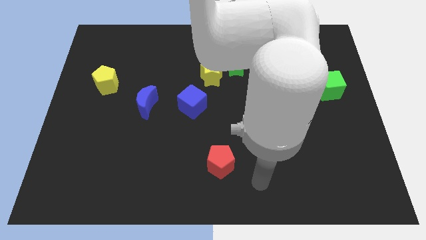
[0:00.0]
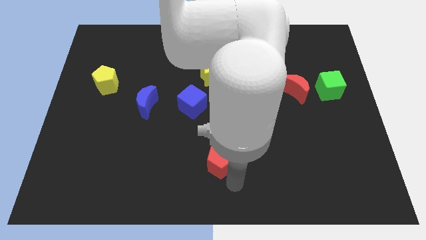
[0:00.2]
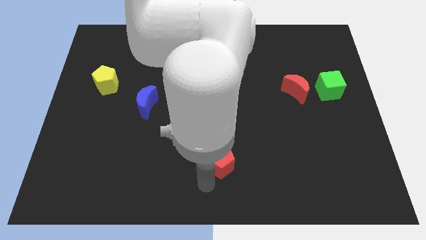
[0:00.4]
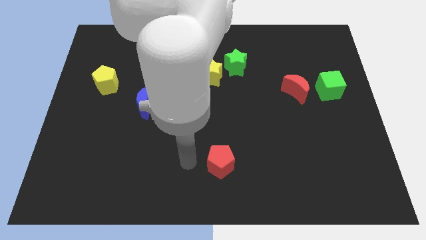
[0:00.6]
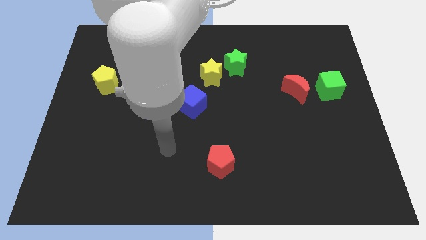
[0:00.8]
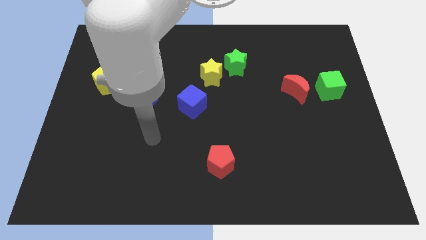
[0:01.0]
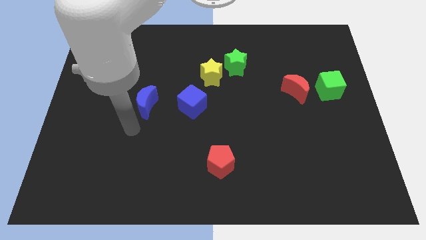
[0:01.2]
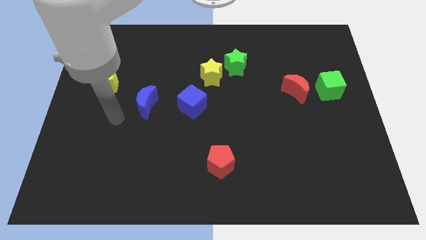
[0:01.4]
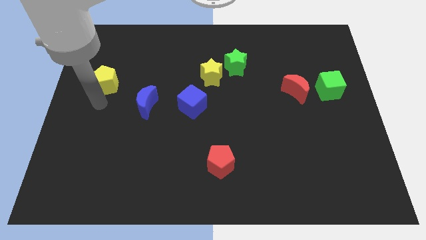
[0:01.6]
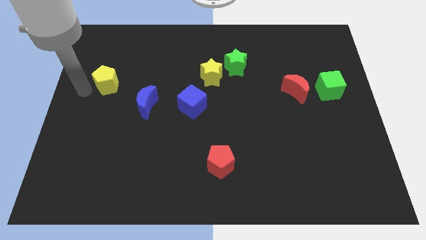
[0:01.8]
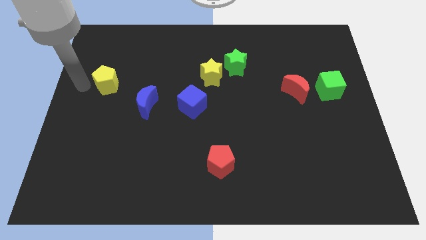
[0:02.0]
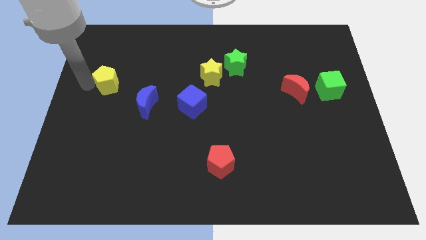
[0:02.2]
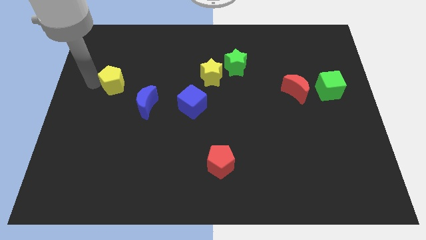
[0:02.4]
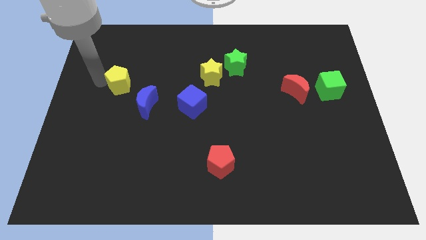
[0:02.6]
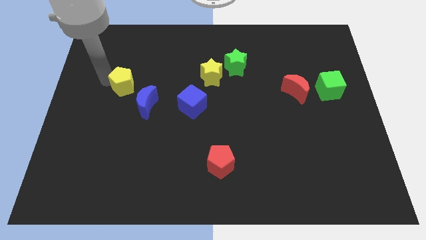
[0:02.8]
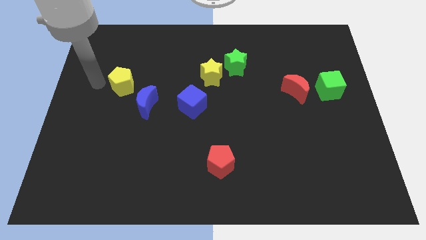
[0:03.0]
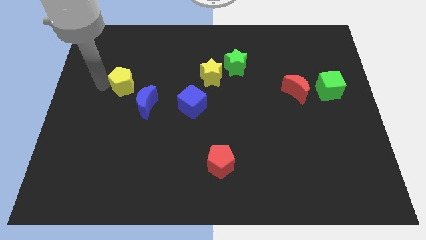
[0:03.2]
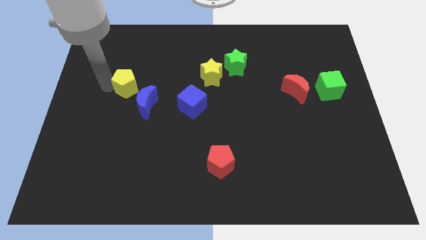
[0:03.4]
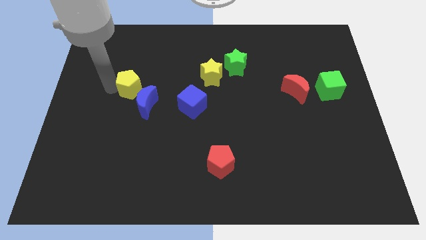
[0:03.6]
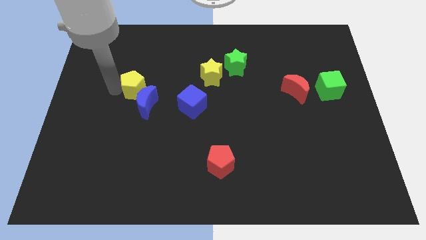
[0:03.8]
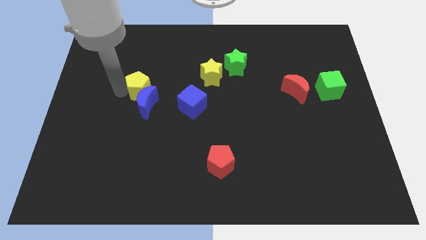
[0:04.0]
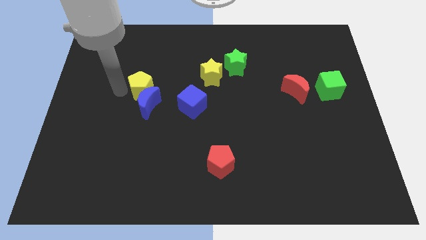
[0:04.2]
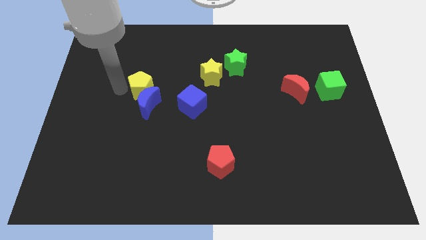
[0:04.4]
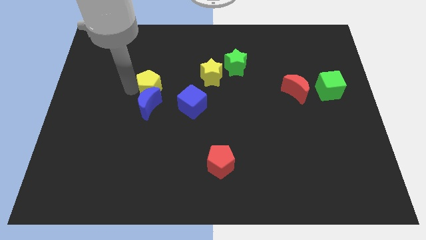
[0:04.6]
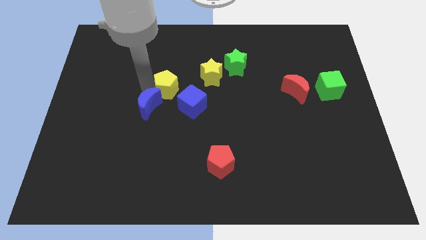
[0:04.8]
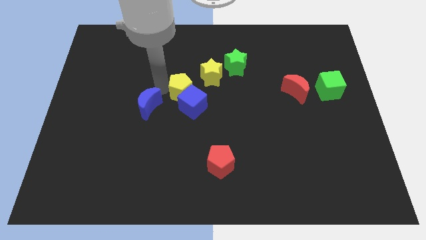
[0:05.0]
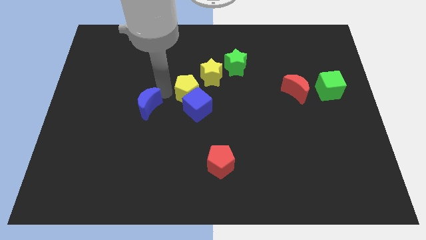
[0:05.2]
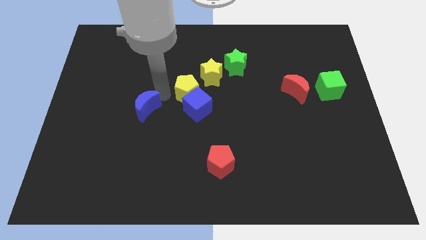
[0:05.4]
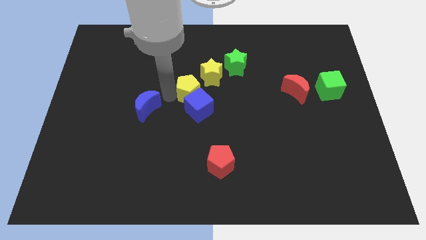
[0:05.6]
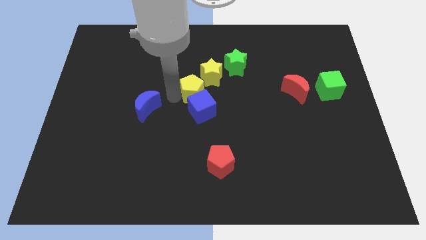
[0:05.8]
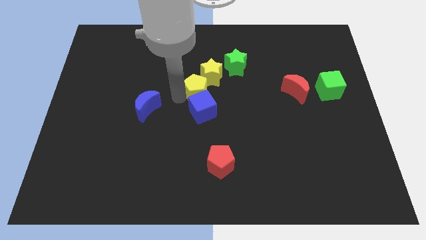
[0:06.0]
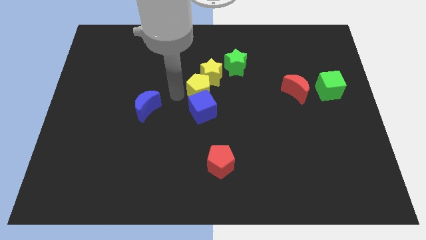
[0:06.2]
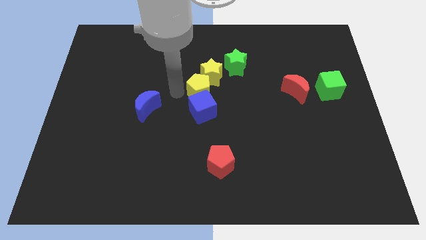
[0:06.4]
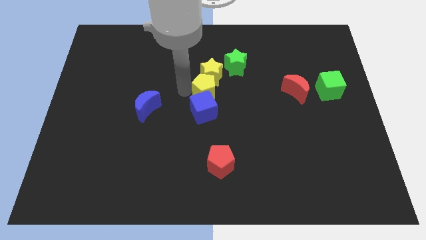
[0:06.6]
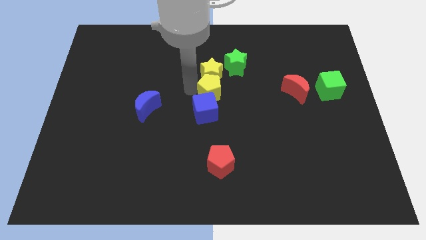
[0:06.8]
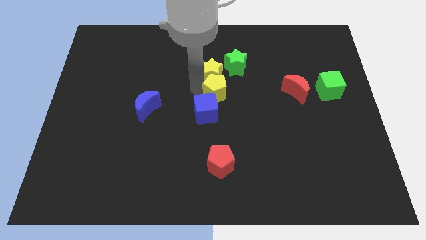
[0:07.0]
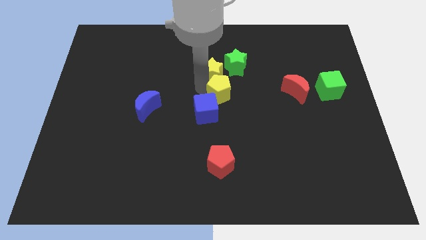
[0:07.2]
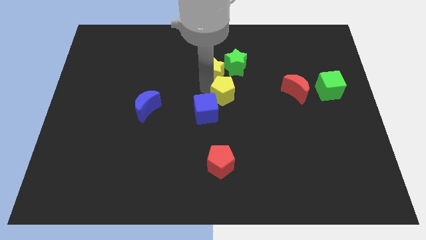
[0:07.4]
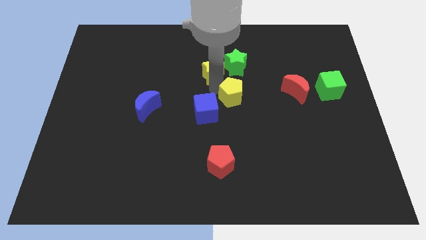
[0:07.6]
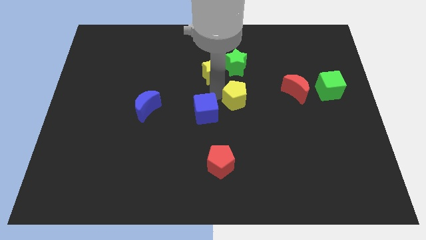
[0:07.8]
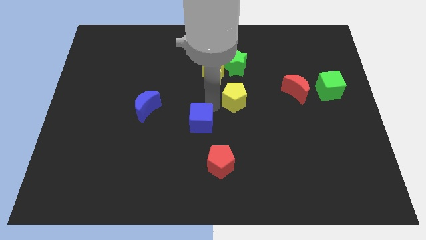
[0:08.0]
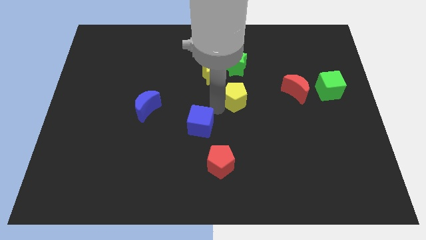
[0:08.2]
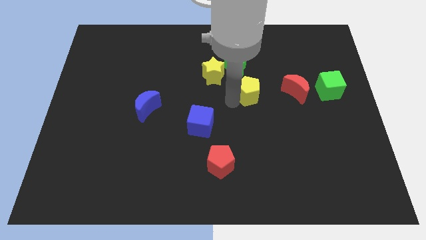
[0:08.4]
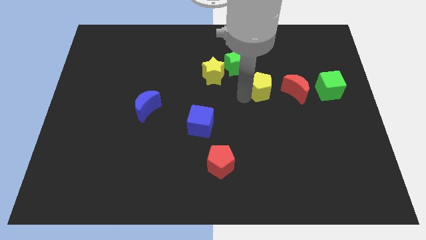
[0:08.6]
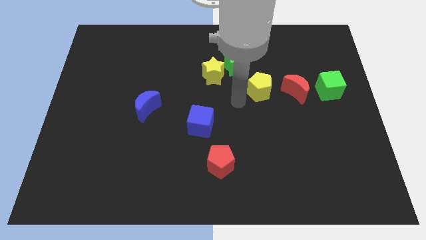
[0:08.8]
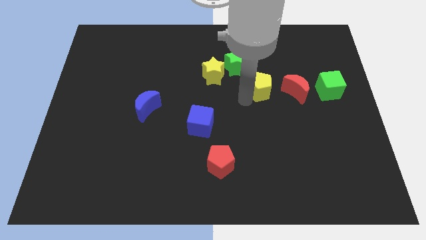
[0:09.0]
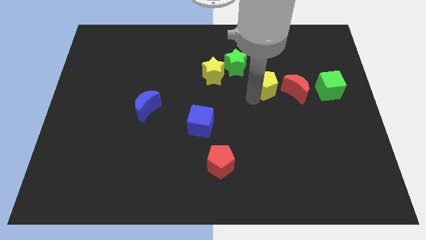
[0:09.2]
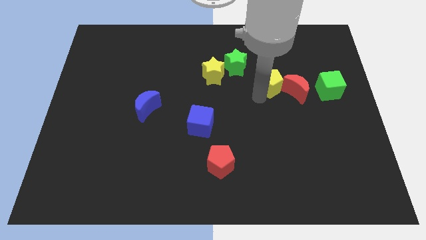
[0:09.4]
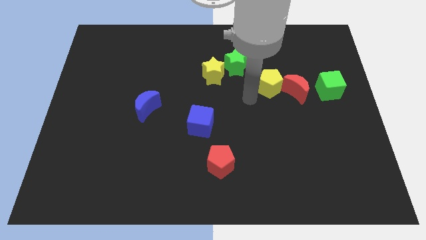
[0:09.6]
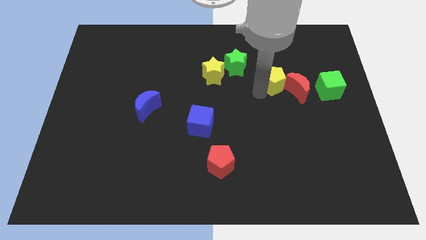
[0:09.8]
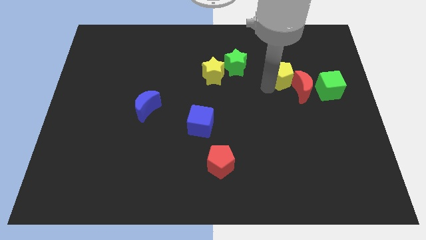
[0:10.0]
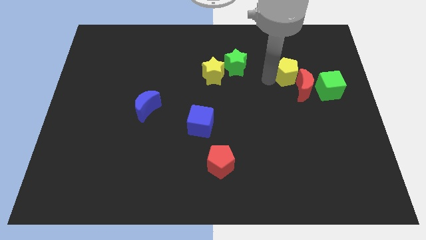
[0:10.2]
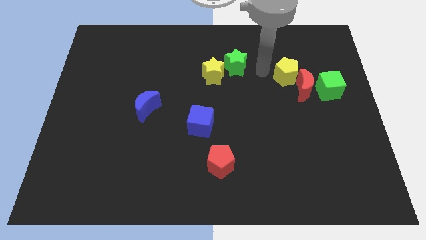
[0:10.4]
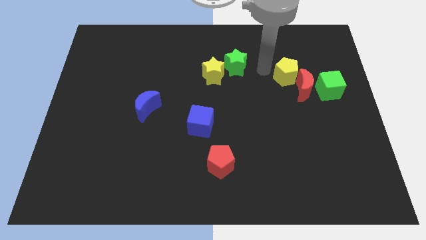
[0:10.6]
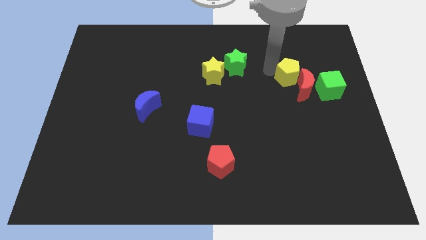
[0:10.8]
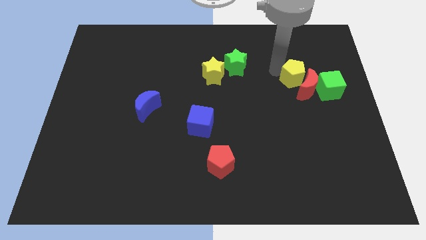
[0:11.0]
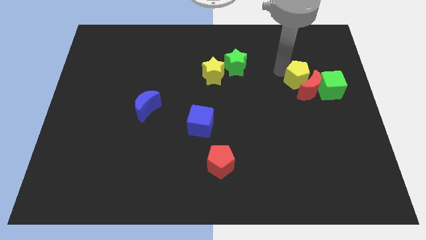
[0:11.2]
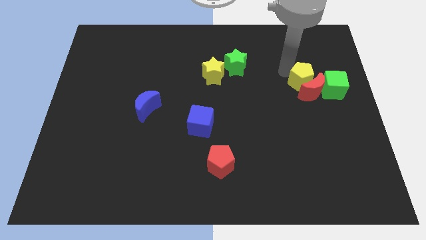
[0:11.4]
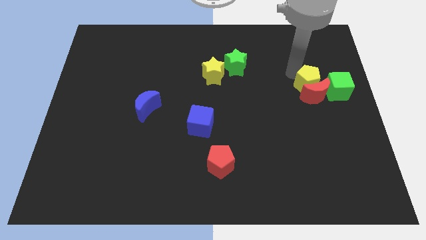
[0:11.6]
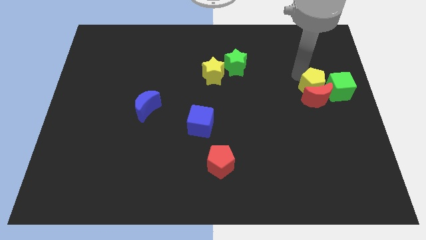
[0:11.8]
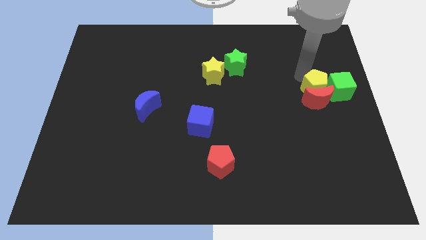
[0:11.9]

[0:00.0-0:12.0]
move the yellow pentagon to the green cube
